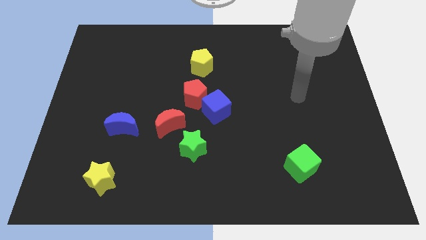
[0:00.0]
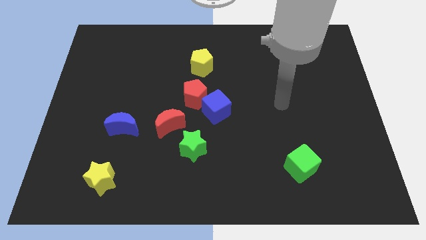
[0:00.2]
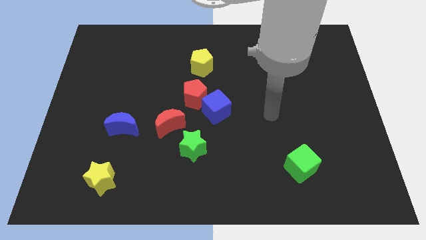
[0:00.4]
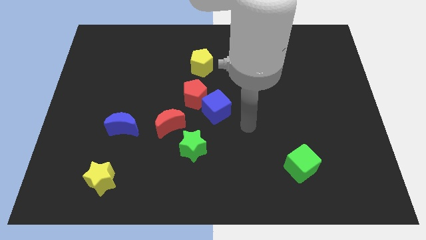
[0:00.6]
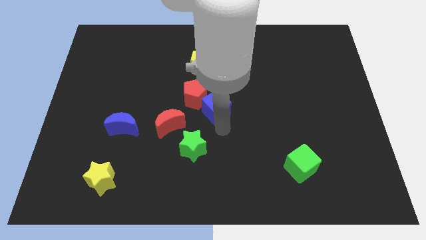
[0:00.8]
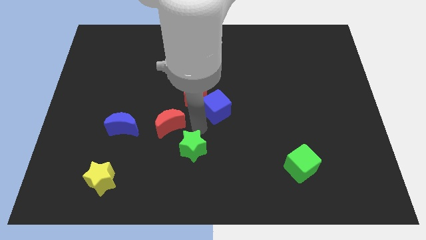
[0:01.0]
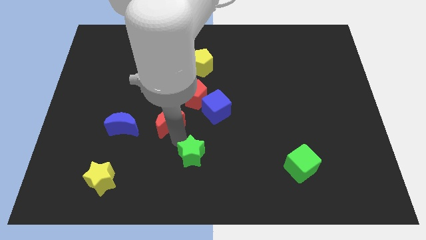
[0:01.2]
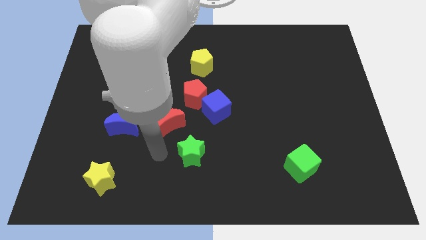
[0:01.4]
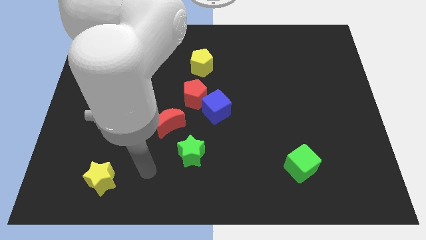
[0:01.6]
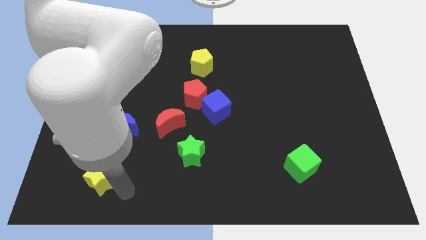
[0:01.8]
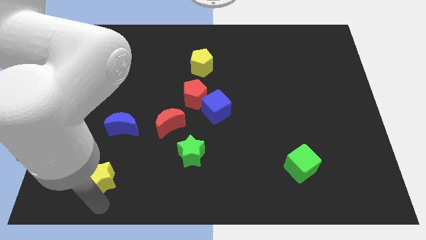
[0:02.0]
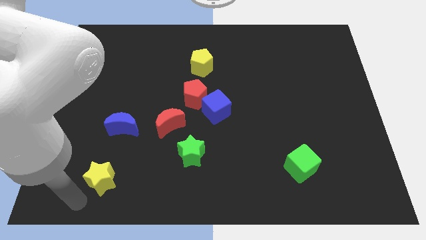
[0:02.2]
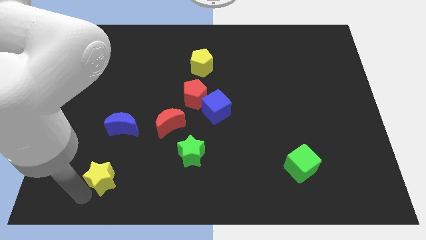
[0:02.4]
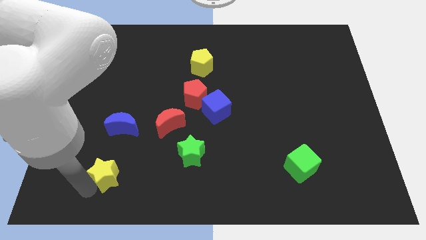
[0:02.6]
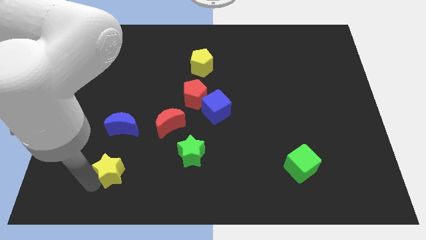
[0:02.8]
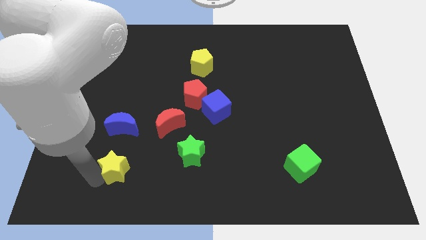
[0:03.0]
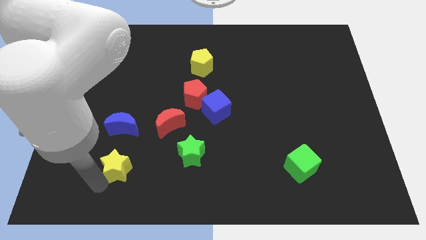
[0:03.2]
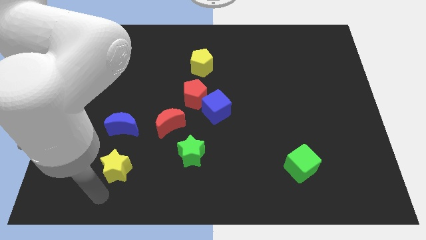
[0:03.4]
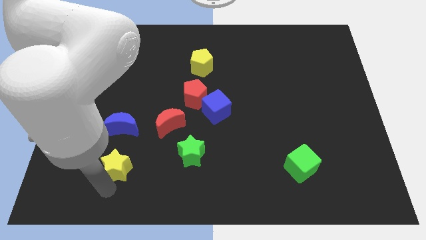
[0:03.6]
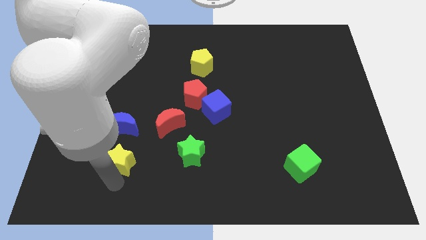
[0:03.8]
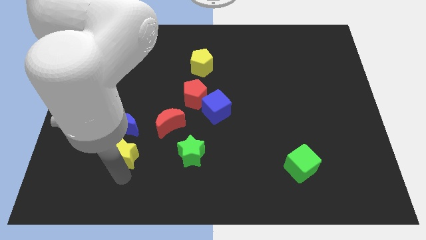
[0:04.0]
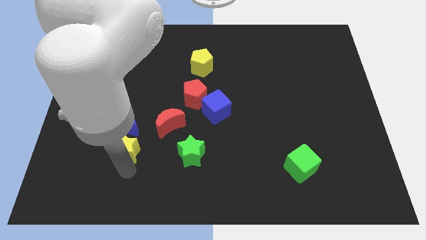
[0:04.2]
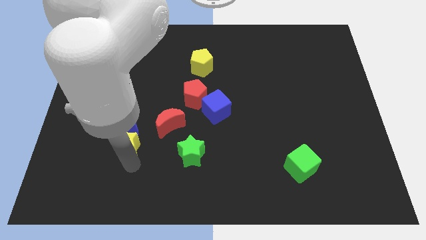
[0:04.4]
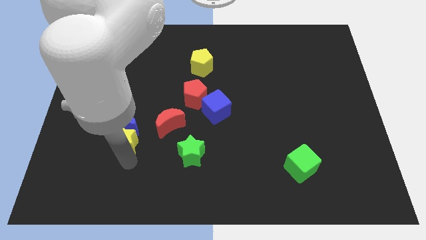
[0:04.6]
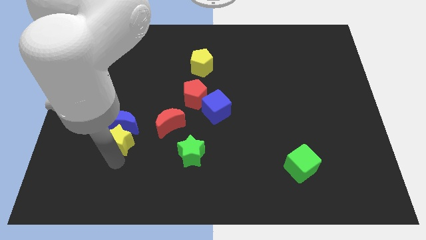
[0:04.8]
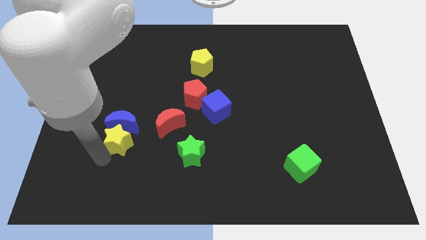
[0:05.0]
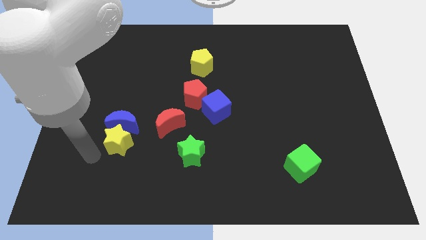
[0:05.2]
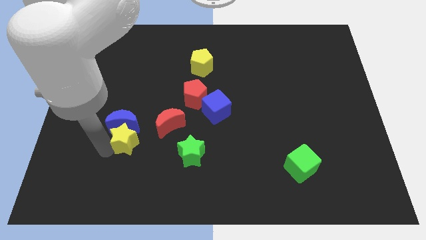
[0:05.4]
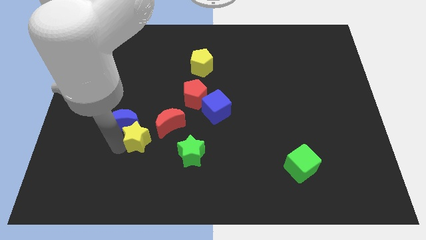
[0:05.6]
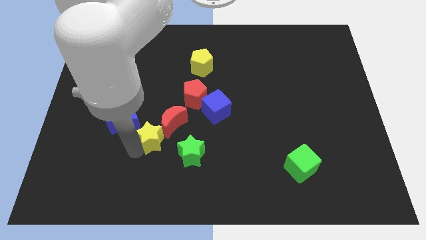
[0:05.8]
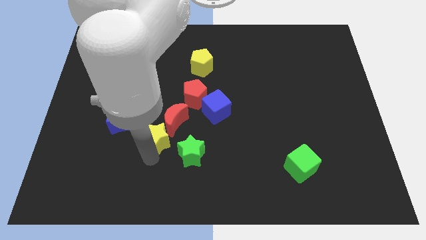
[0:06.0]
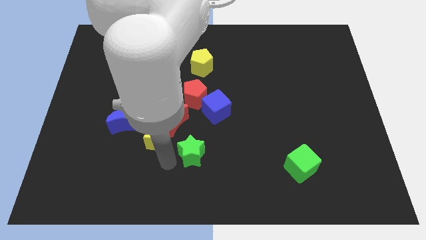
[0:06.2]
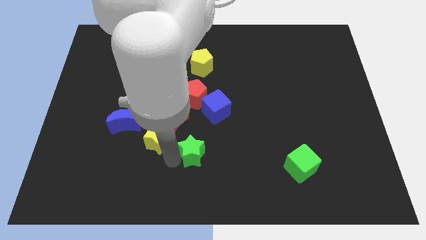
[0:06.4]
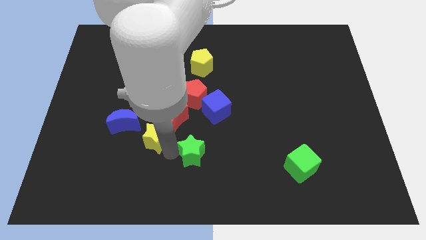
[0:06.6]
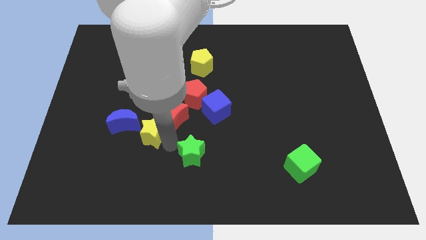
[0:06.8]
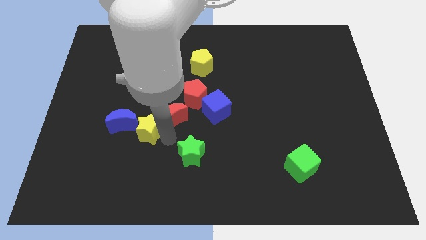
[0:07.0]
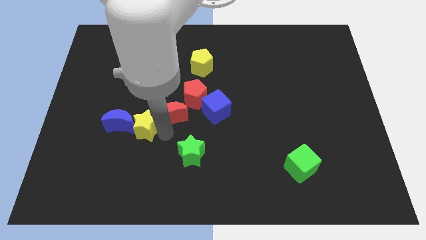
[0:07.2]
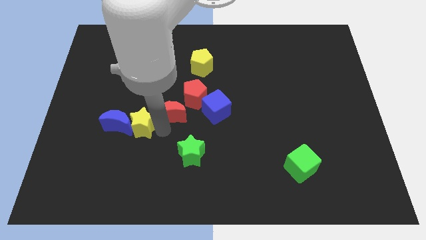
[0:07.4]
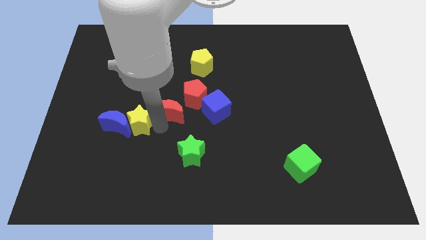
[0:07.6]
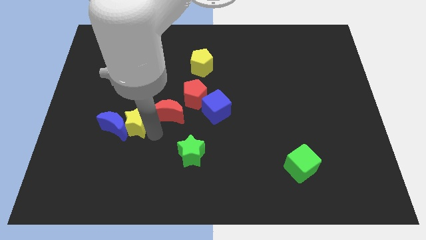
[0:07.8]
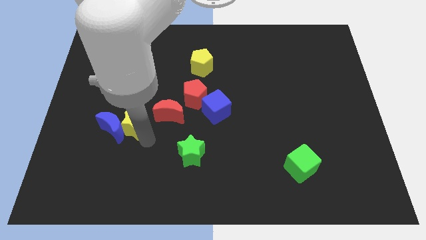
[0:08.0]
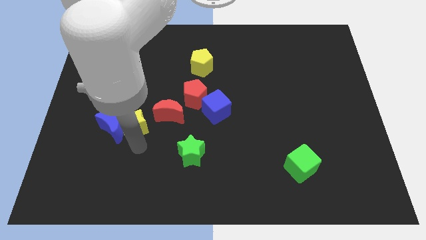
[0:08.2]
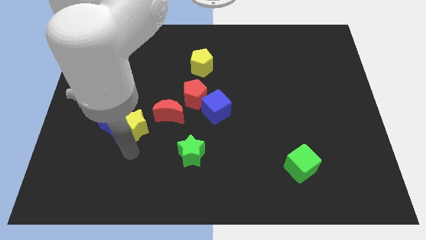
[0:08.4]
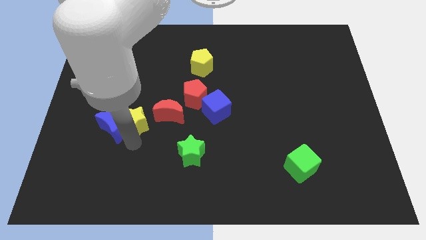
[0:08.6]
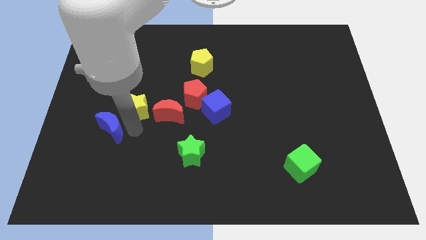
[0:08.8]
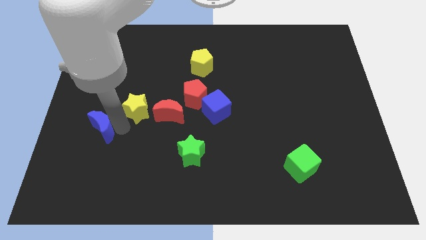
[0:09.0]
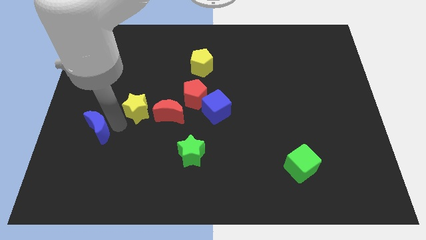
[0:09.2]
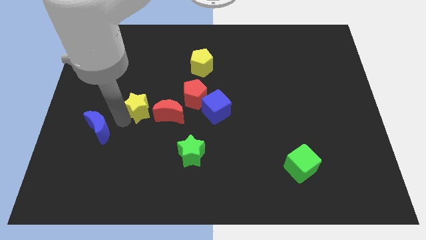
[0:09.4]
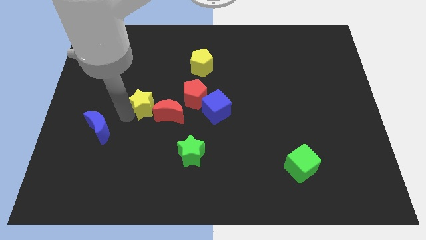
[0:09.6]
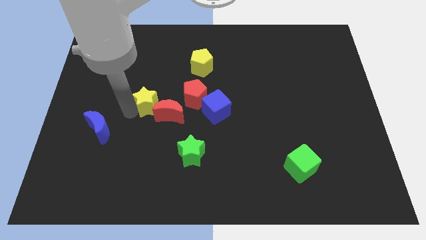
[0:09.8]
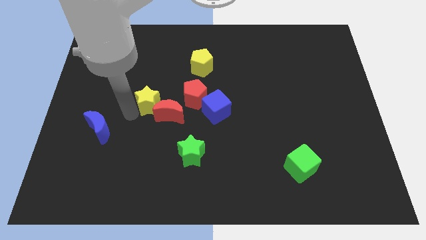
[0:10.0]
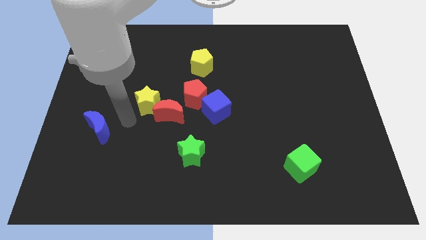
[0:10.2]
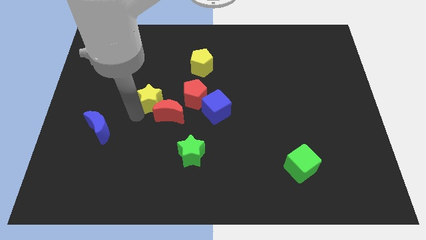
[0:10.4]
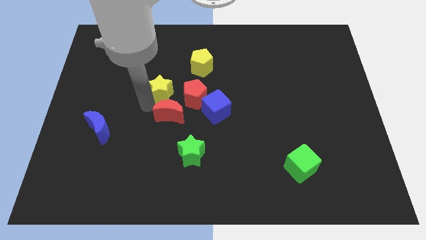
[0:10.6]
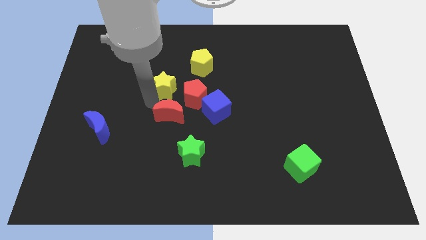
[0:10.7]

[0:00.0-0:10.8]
push the yellow star diagonally up and right

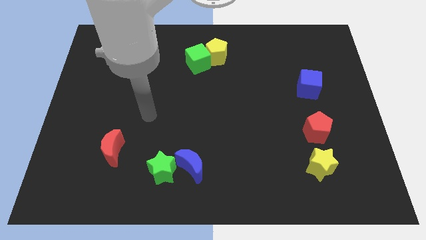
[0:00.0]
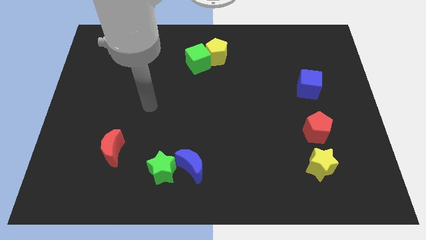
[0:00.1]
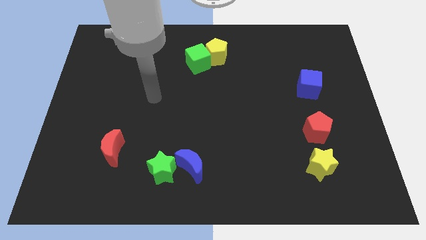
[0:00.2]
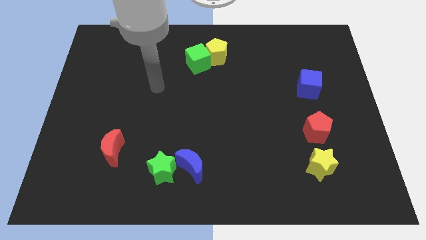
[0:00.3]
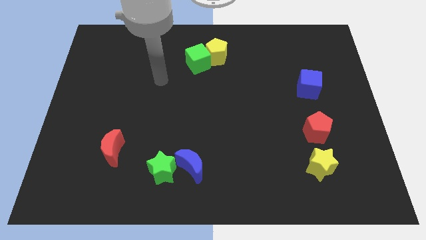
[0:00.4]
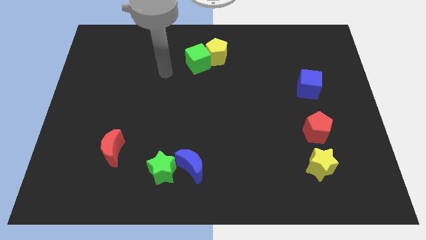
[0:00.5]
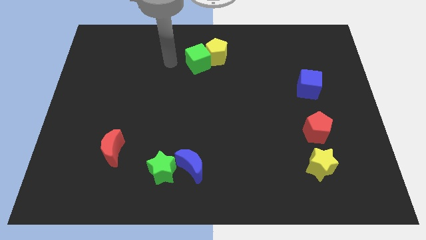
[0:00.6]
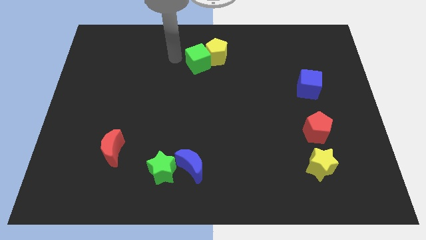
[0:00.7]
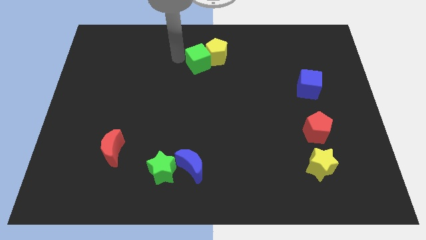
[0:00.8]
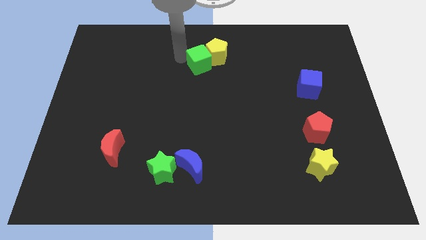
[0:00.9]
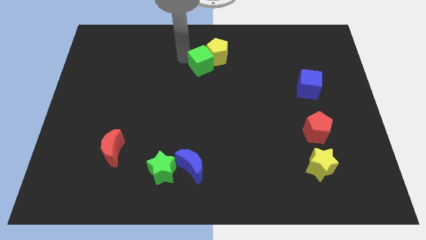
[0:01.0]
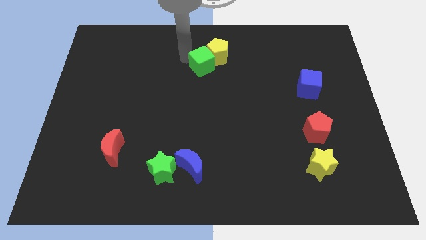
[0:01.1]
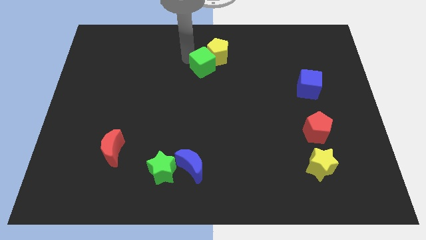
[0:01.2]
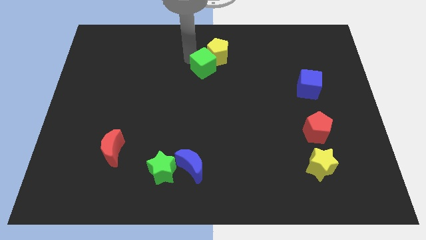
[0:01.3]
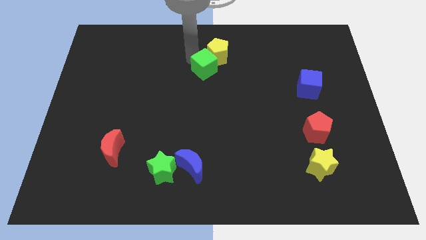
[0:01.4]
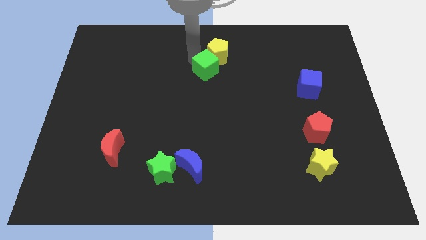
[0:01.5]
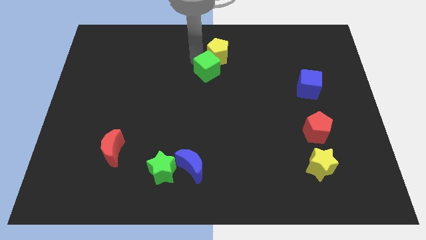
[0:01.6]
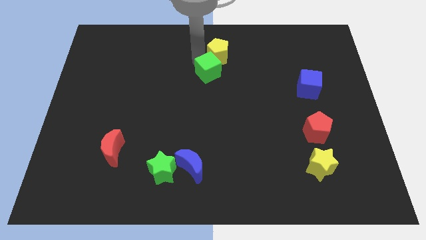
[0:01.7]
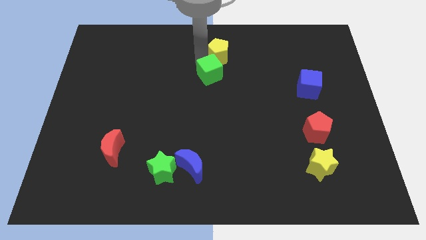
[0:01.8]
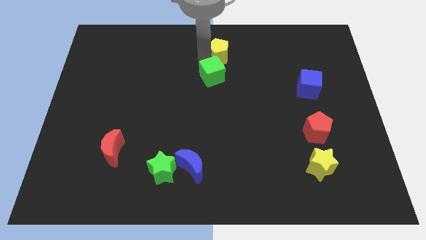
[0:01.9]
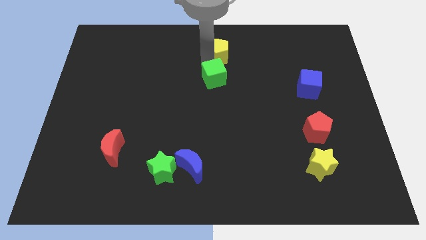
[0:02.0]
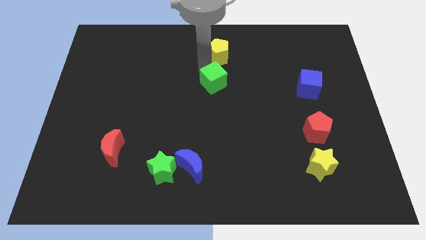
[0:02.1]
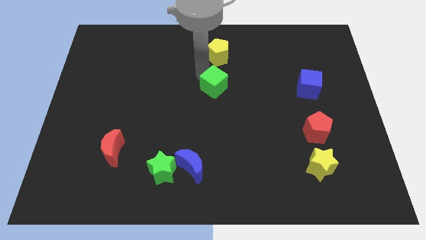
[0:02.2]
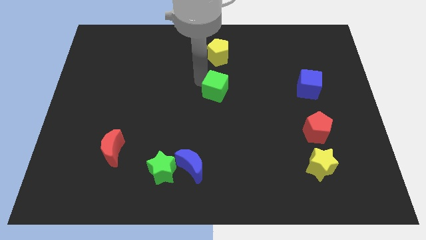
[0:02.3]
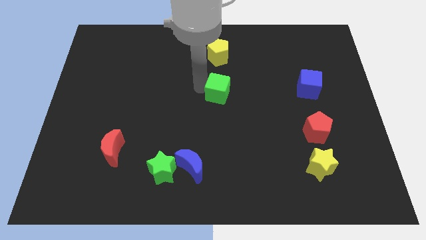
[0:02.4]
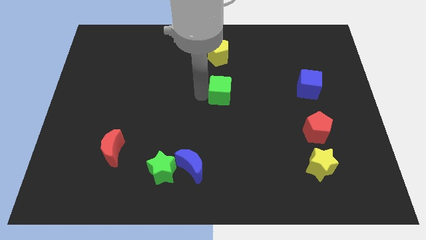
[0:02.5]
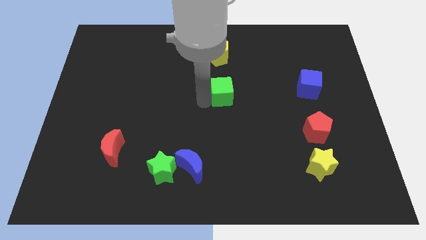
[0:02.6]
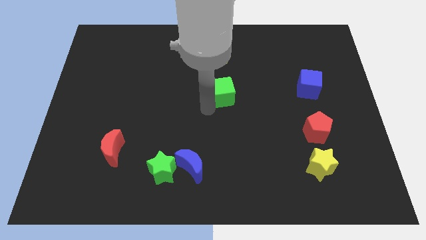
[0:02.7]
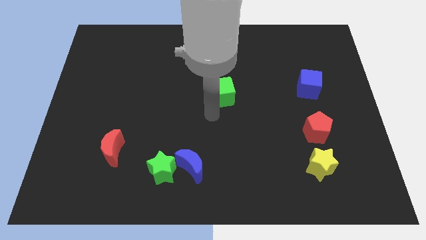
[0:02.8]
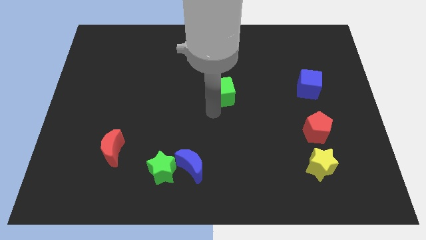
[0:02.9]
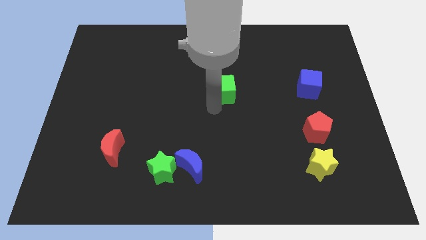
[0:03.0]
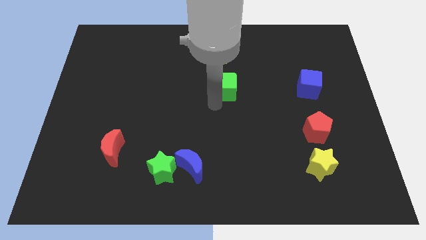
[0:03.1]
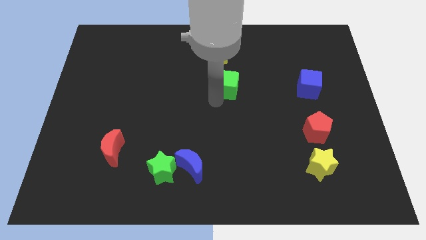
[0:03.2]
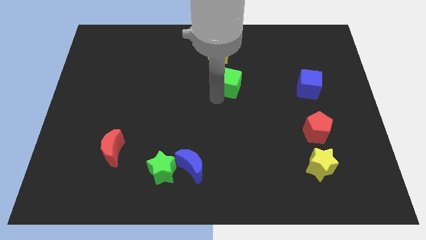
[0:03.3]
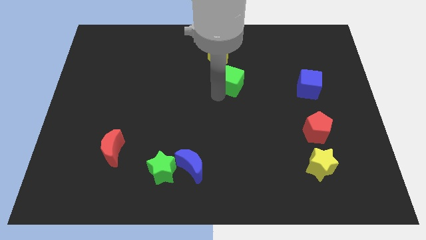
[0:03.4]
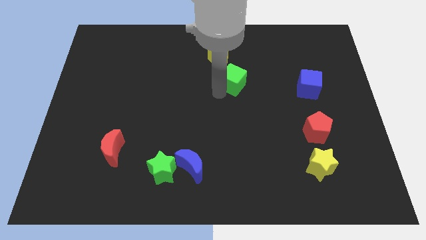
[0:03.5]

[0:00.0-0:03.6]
move the green cube to the right a bit
